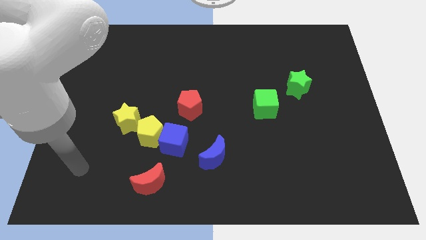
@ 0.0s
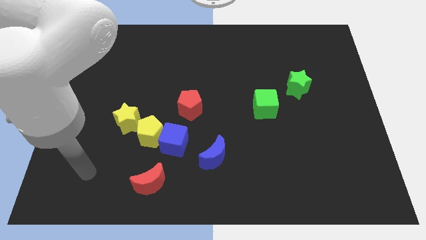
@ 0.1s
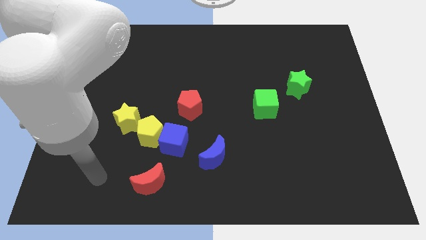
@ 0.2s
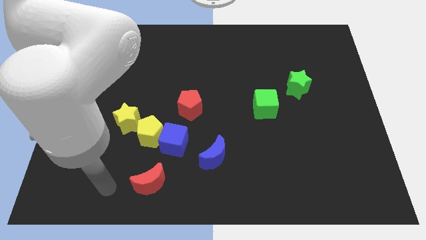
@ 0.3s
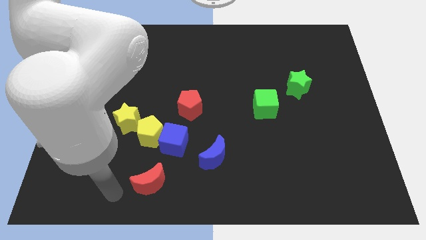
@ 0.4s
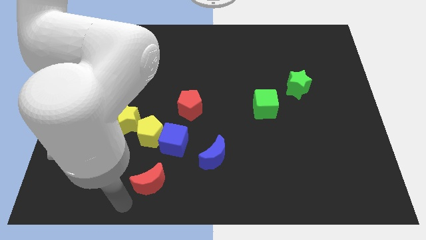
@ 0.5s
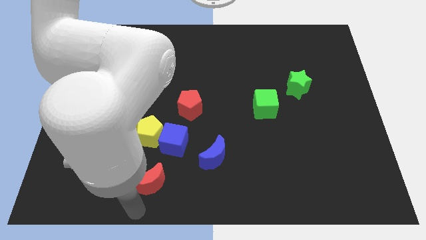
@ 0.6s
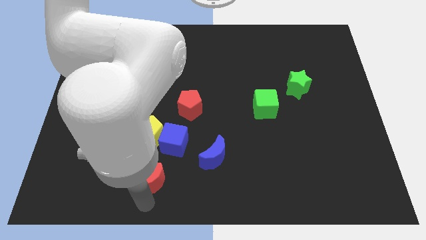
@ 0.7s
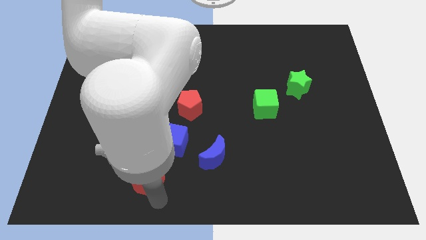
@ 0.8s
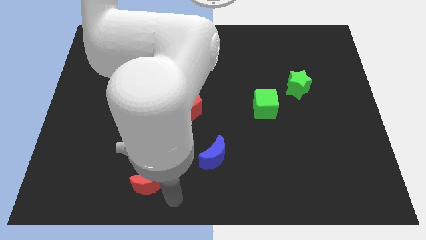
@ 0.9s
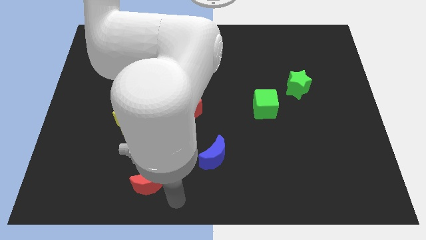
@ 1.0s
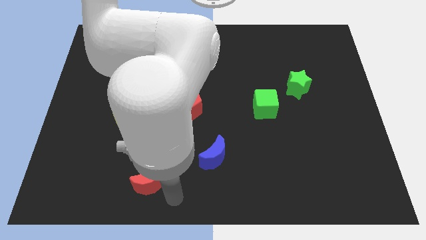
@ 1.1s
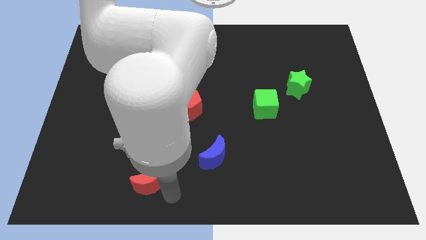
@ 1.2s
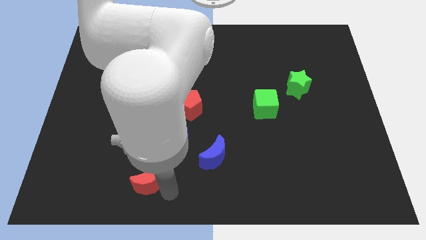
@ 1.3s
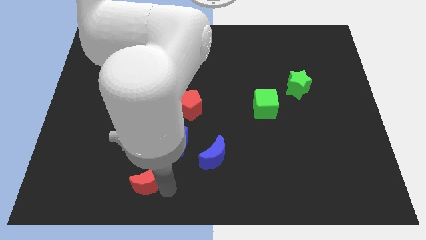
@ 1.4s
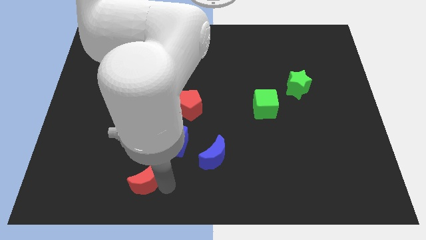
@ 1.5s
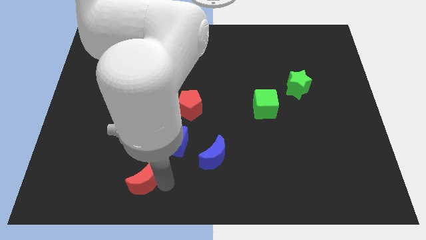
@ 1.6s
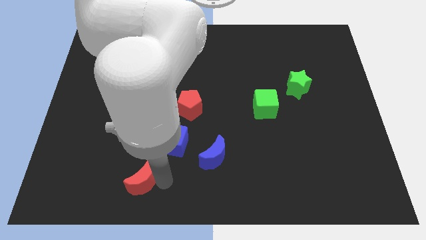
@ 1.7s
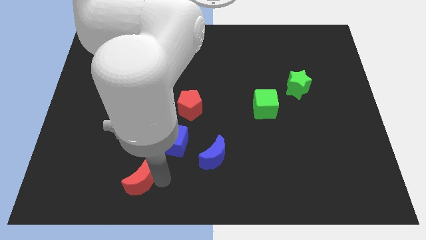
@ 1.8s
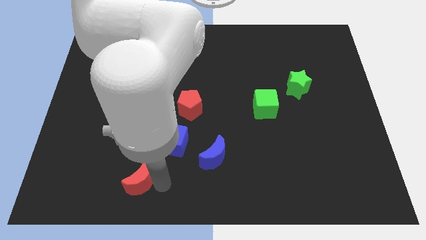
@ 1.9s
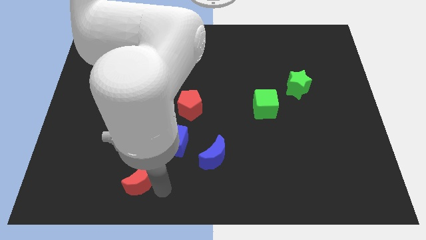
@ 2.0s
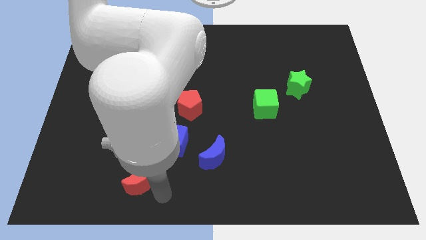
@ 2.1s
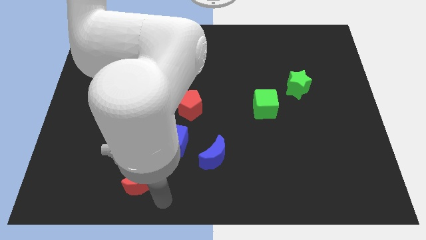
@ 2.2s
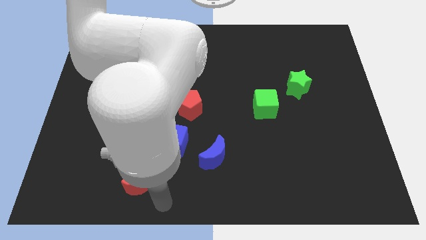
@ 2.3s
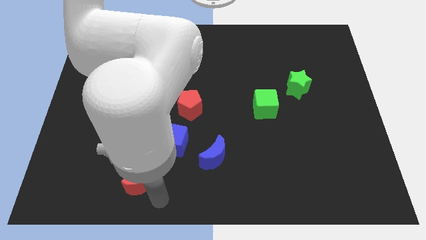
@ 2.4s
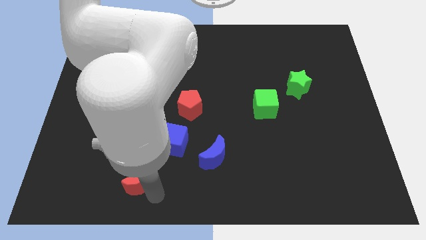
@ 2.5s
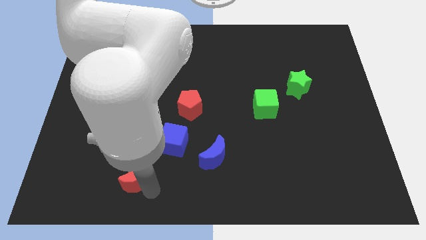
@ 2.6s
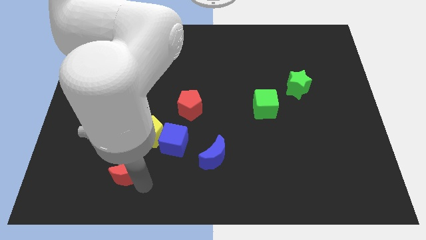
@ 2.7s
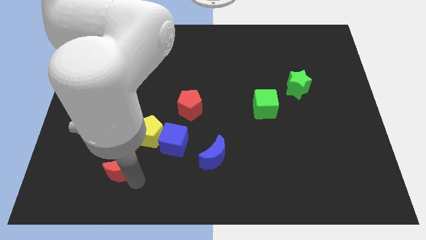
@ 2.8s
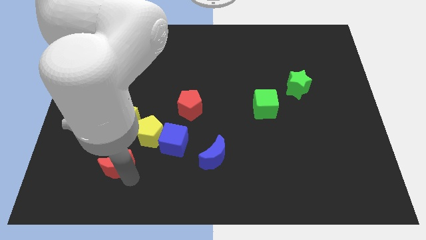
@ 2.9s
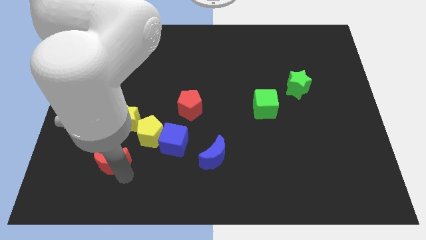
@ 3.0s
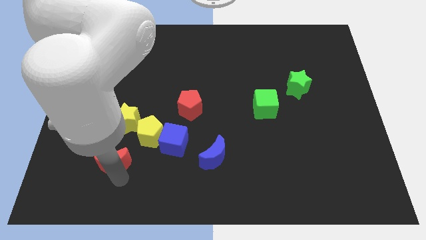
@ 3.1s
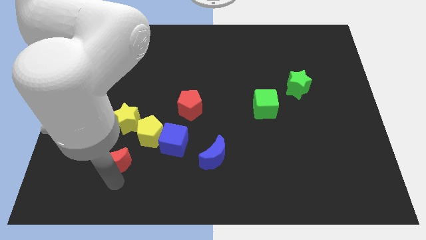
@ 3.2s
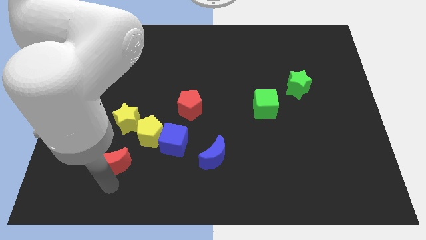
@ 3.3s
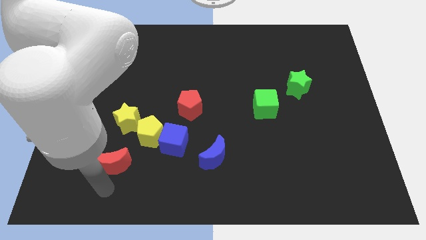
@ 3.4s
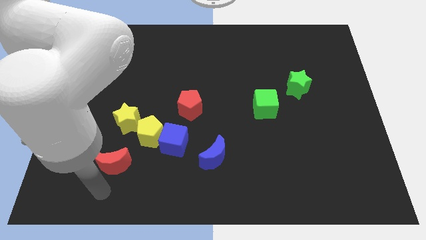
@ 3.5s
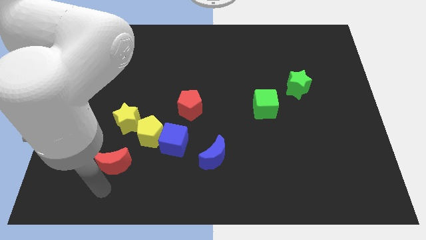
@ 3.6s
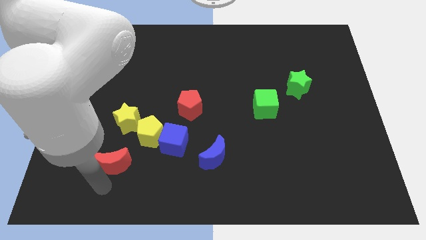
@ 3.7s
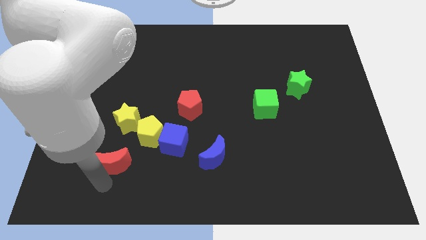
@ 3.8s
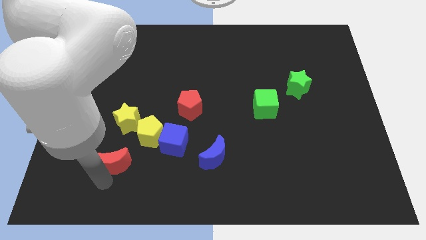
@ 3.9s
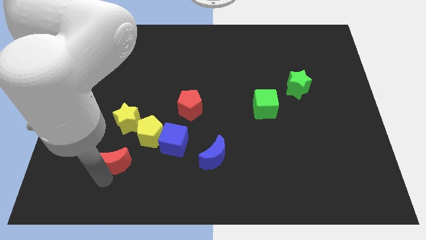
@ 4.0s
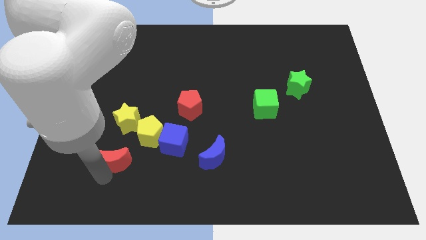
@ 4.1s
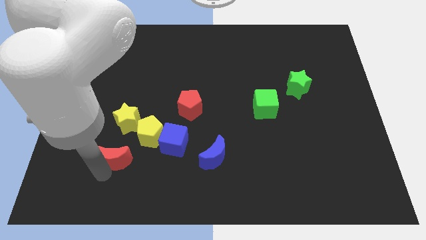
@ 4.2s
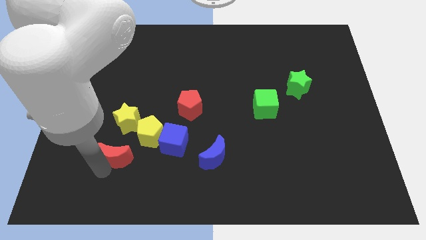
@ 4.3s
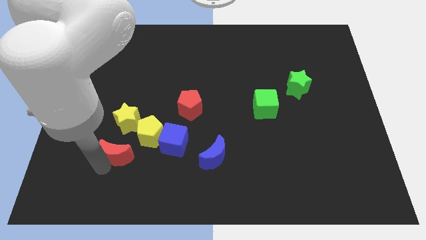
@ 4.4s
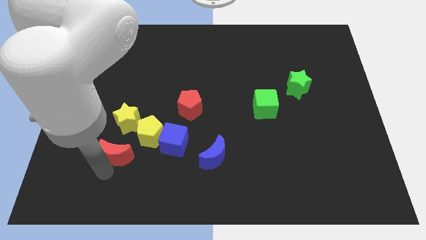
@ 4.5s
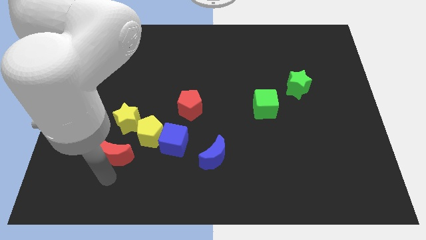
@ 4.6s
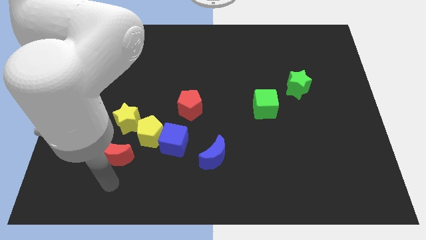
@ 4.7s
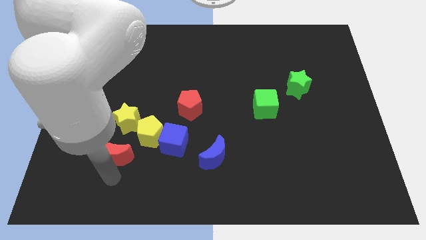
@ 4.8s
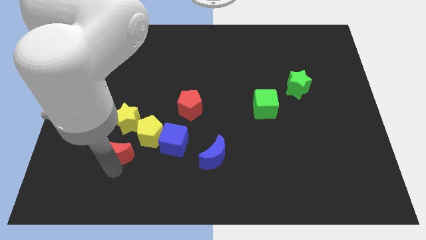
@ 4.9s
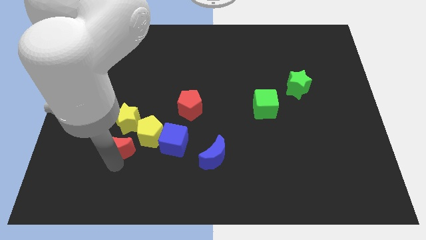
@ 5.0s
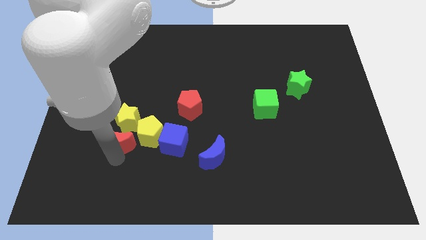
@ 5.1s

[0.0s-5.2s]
put the red moon towards the yellow star
